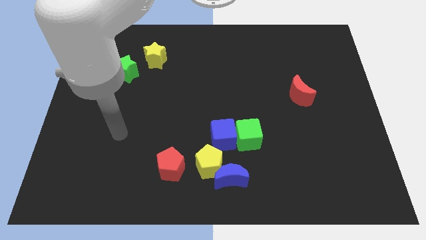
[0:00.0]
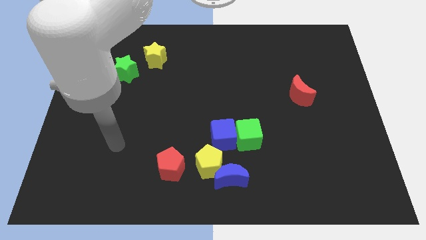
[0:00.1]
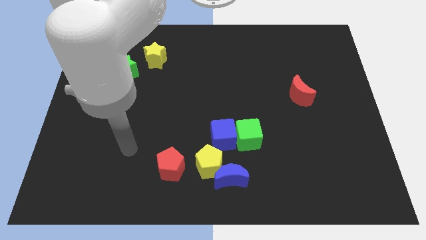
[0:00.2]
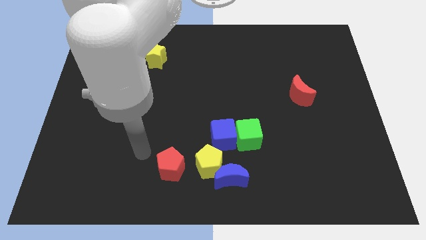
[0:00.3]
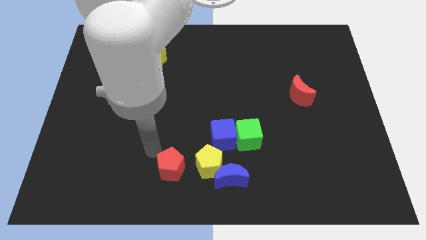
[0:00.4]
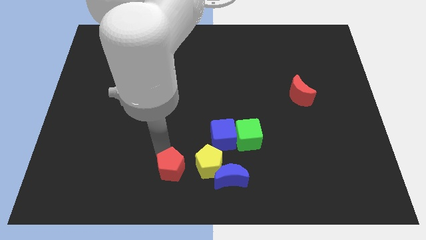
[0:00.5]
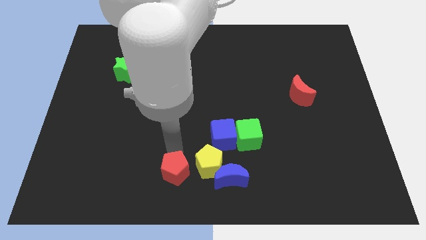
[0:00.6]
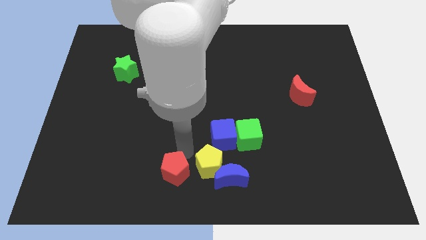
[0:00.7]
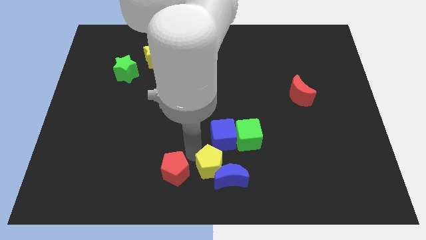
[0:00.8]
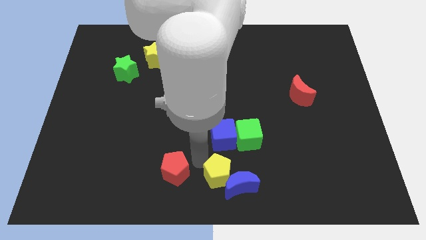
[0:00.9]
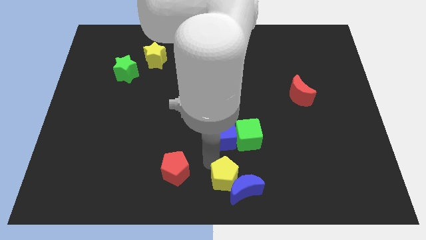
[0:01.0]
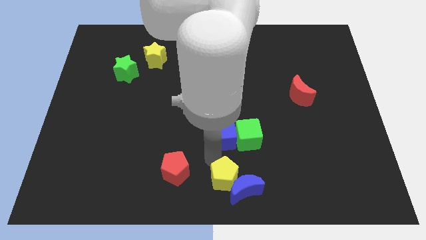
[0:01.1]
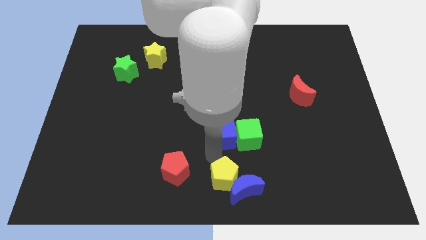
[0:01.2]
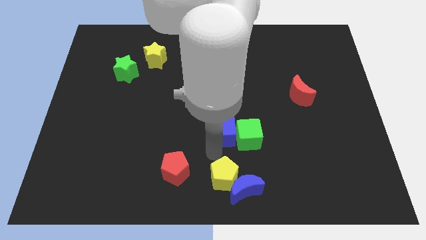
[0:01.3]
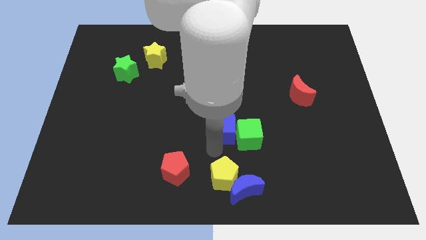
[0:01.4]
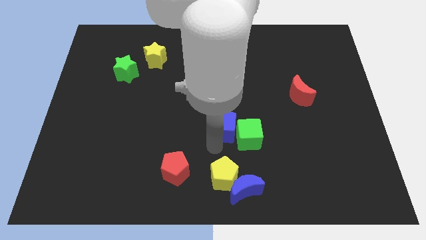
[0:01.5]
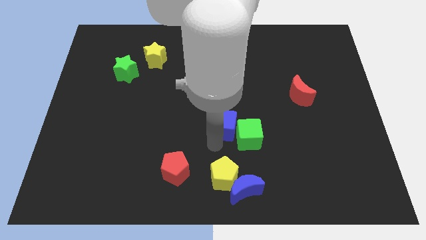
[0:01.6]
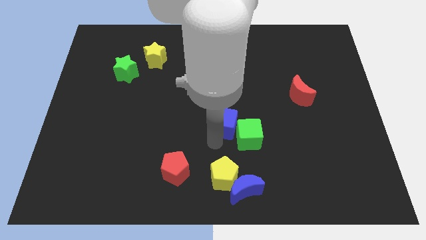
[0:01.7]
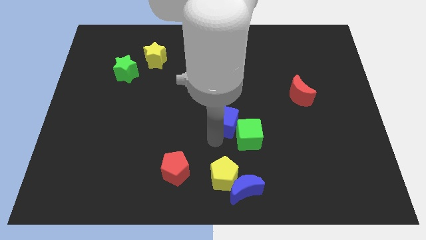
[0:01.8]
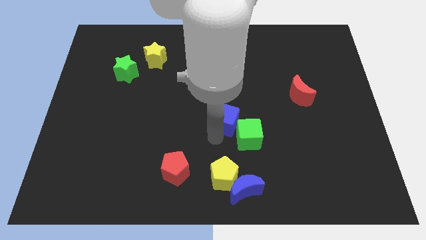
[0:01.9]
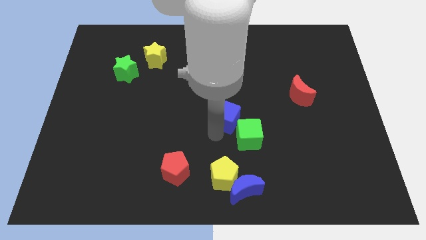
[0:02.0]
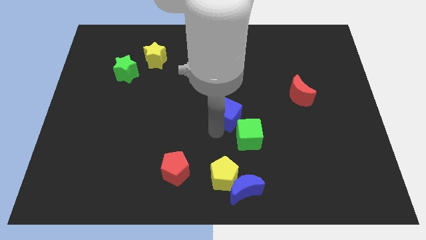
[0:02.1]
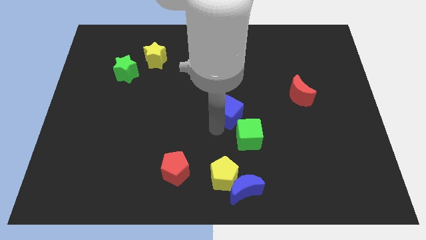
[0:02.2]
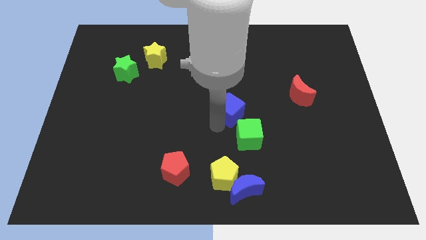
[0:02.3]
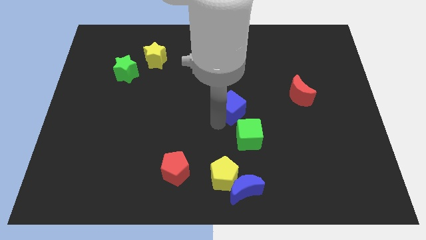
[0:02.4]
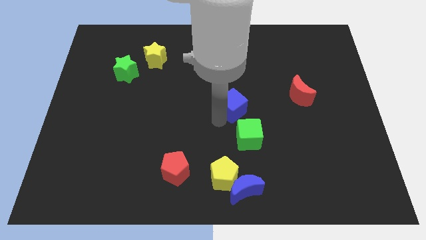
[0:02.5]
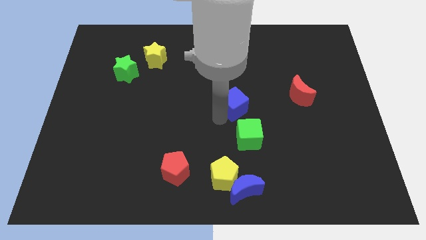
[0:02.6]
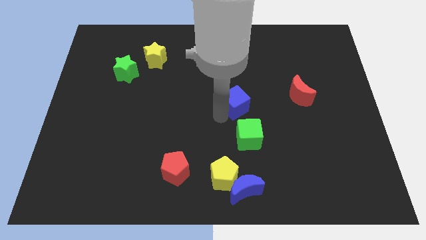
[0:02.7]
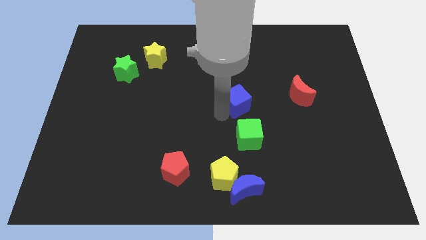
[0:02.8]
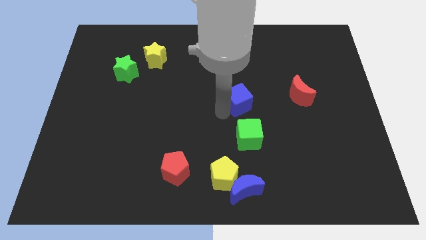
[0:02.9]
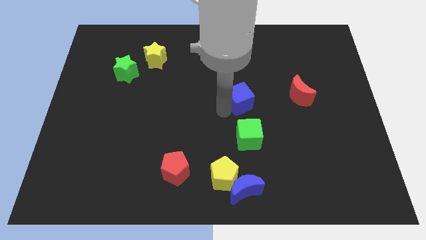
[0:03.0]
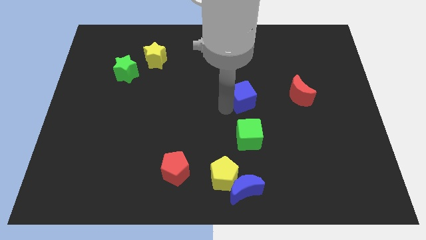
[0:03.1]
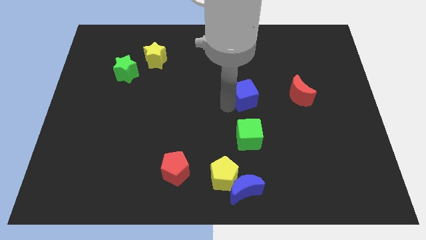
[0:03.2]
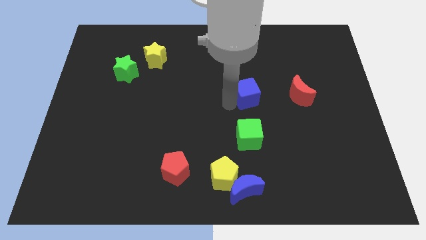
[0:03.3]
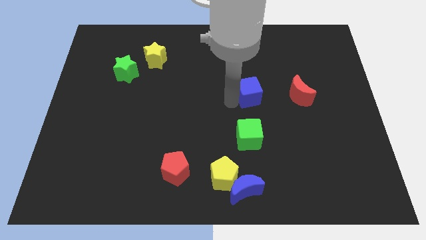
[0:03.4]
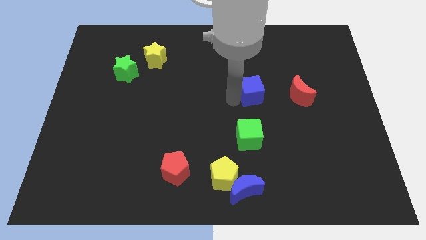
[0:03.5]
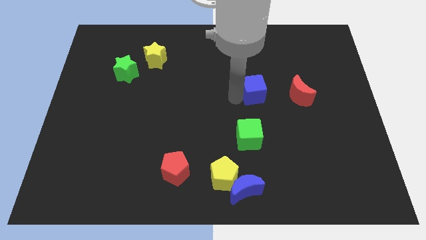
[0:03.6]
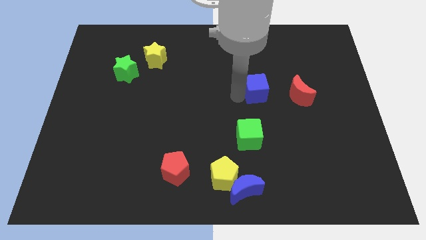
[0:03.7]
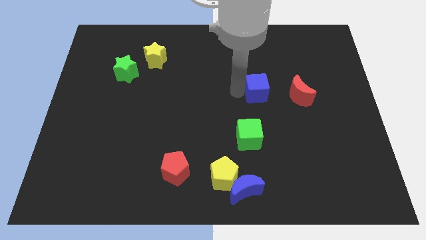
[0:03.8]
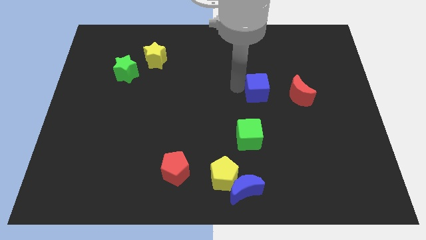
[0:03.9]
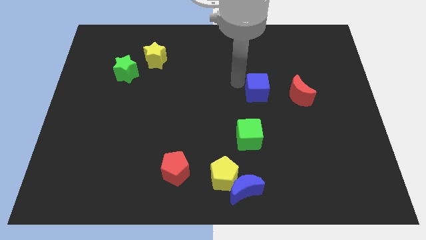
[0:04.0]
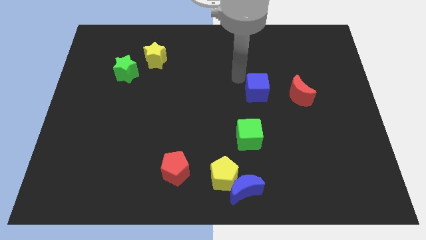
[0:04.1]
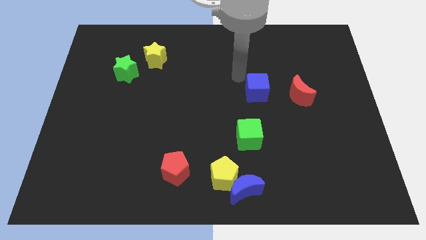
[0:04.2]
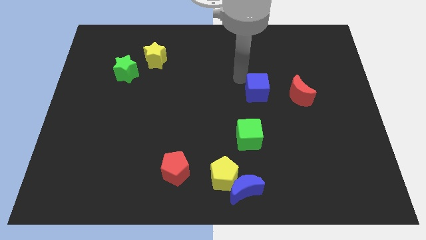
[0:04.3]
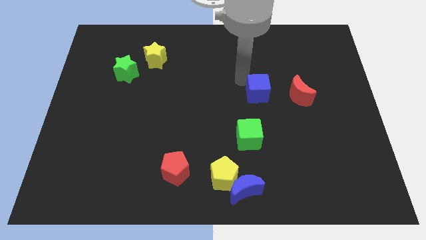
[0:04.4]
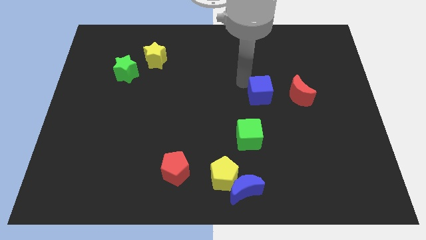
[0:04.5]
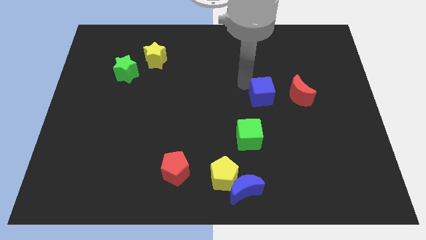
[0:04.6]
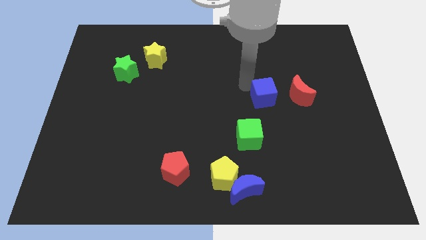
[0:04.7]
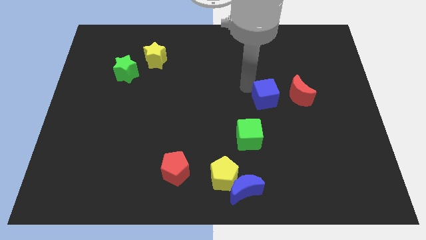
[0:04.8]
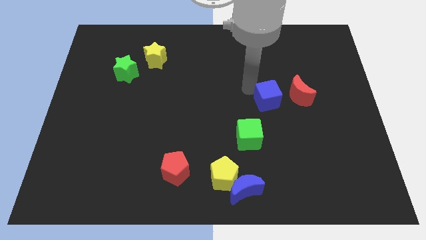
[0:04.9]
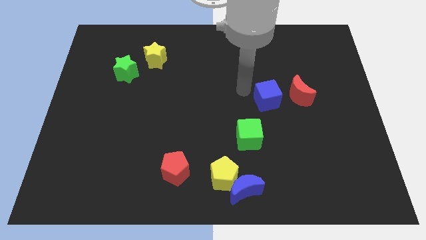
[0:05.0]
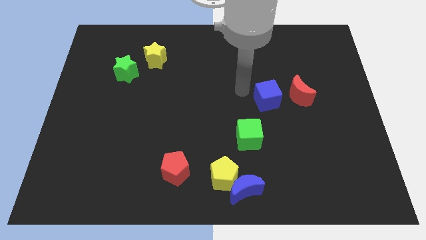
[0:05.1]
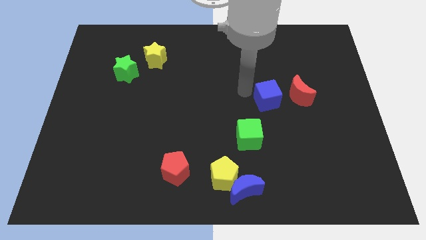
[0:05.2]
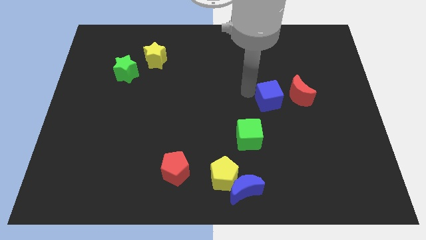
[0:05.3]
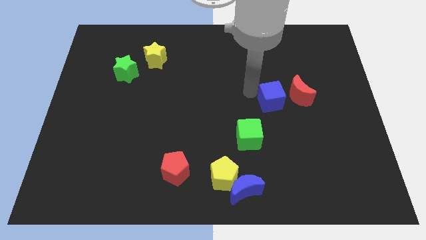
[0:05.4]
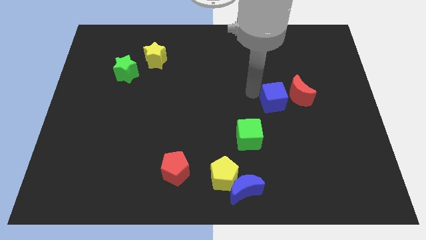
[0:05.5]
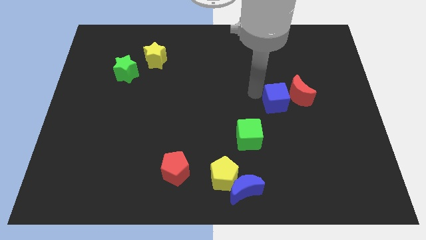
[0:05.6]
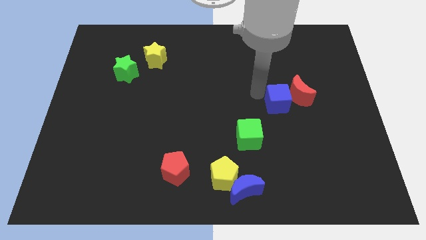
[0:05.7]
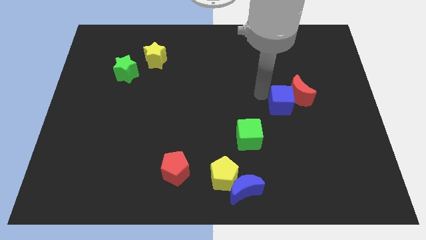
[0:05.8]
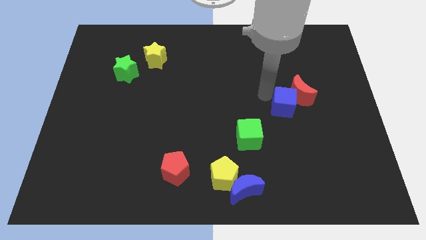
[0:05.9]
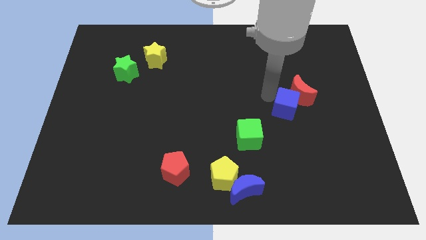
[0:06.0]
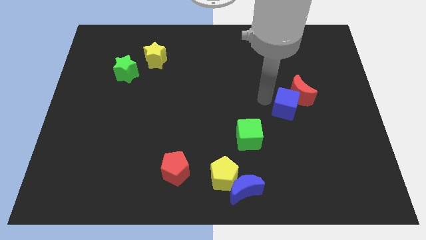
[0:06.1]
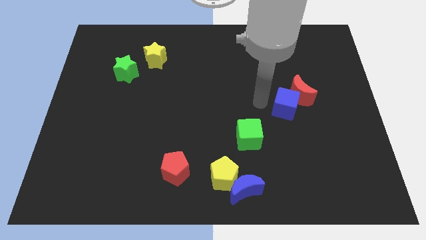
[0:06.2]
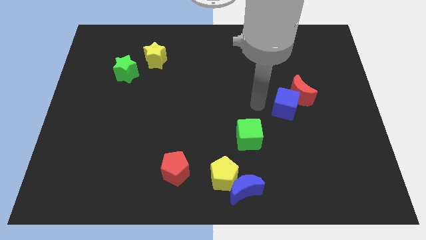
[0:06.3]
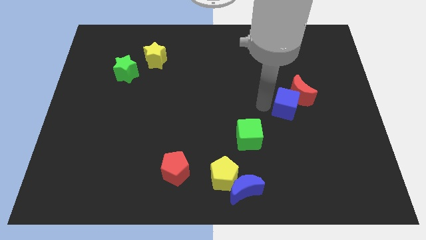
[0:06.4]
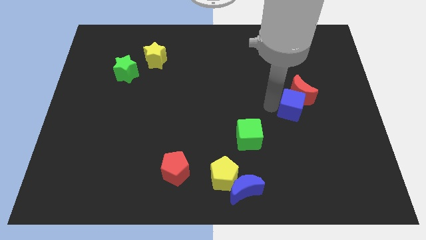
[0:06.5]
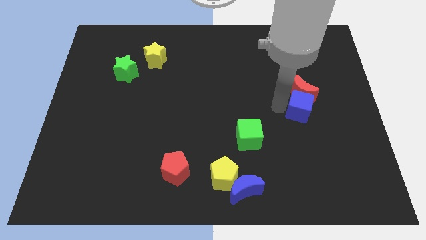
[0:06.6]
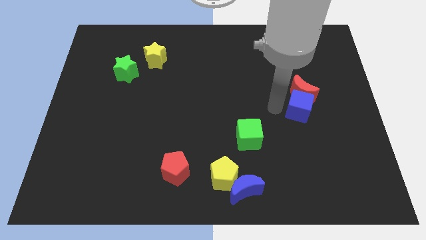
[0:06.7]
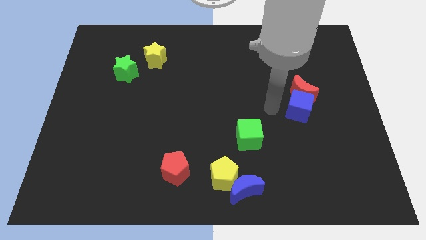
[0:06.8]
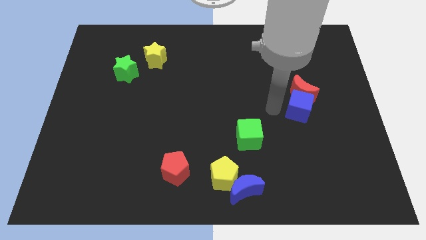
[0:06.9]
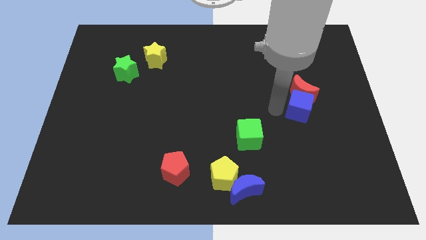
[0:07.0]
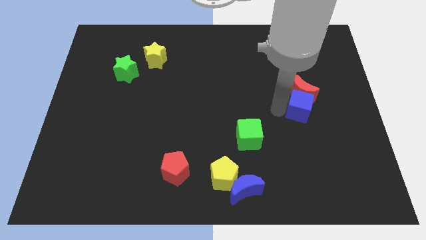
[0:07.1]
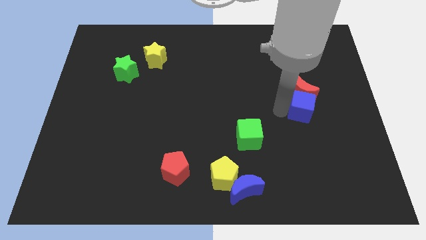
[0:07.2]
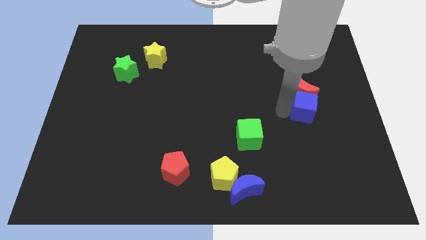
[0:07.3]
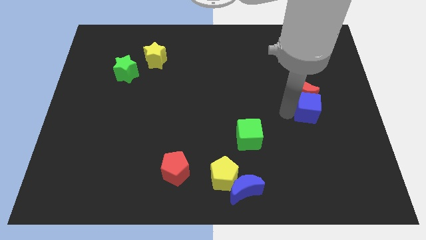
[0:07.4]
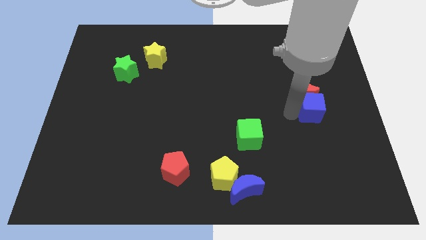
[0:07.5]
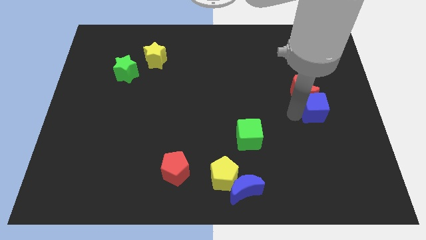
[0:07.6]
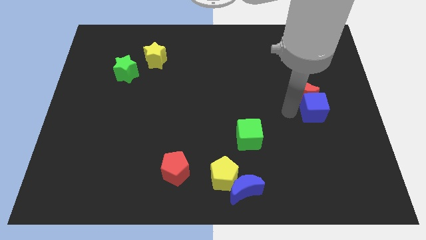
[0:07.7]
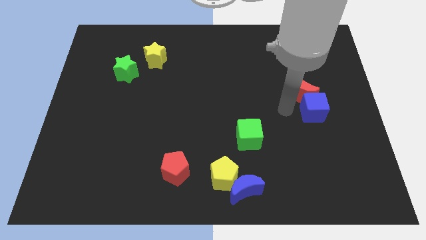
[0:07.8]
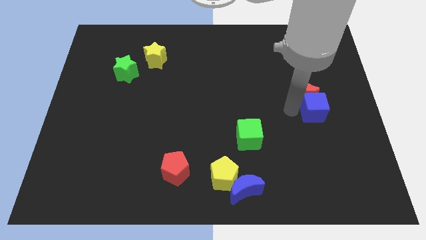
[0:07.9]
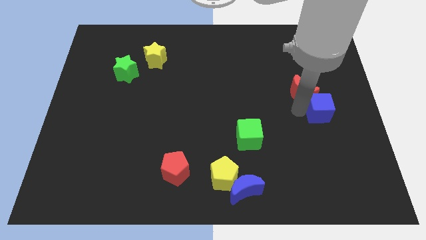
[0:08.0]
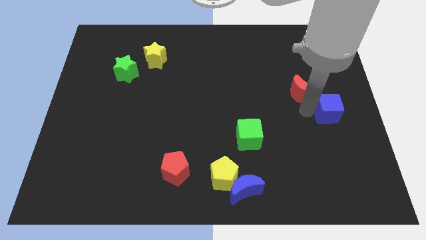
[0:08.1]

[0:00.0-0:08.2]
move the blue cube to the center right
